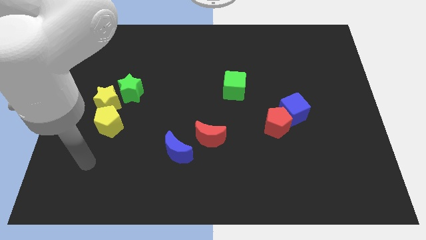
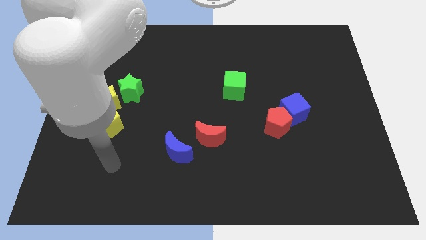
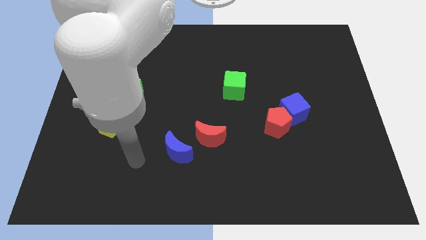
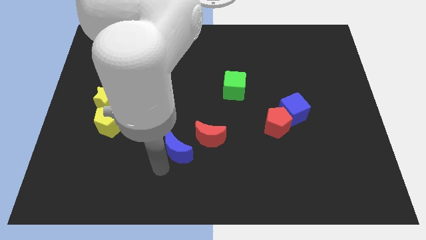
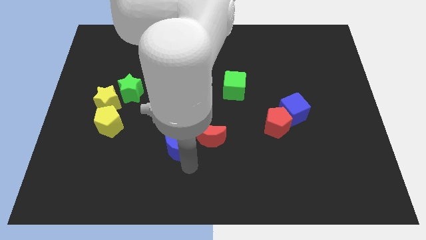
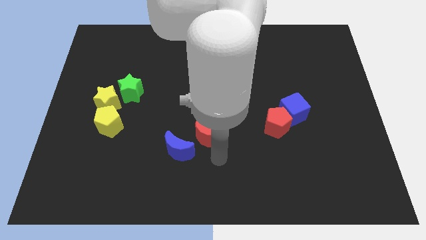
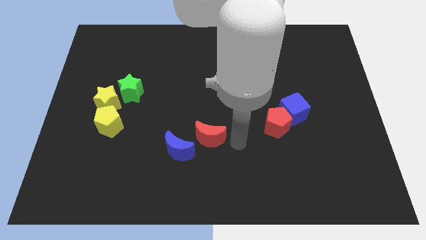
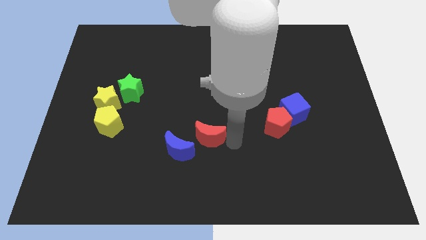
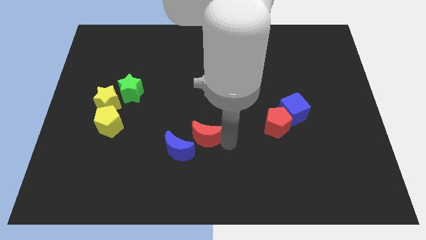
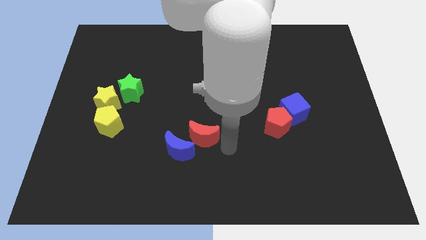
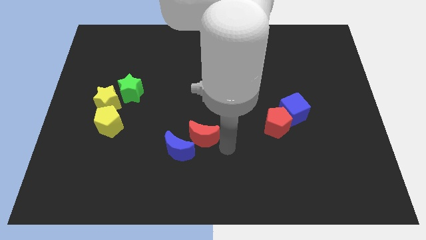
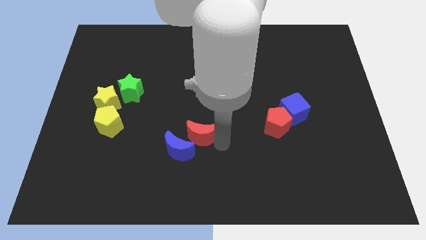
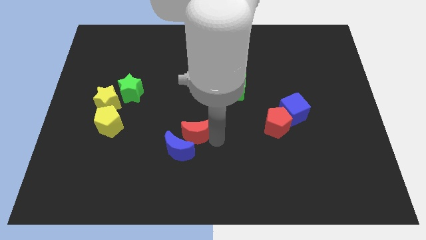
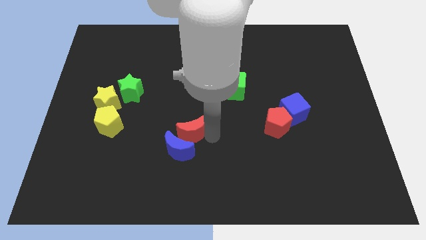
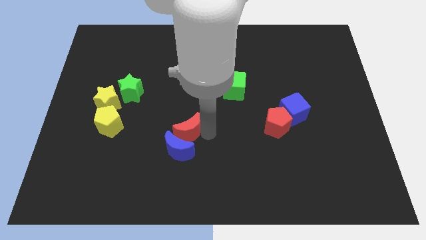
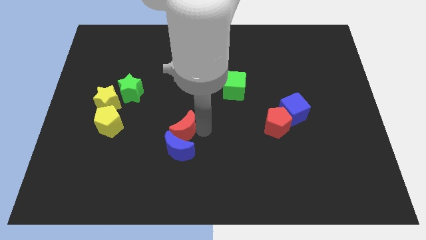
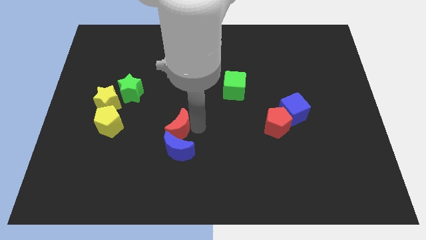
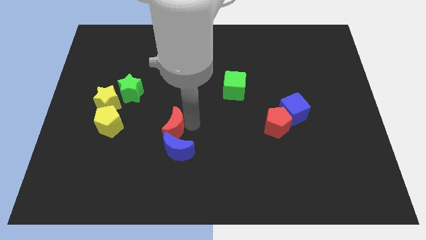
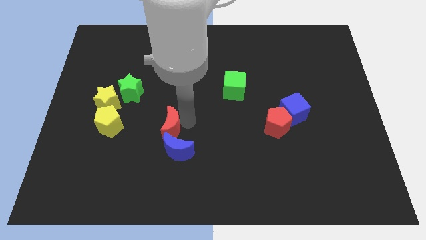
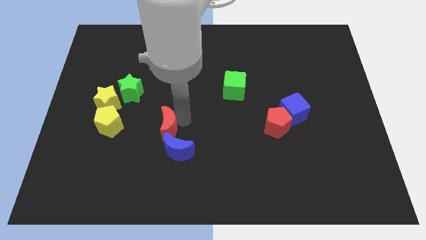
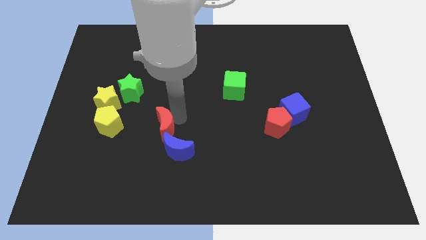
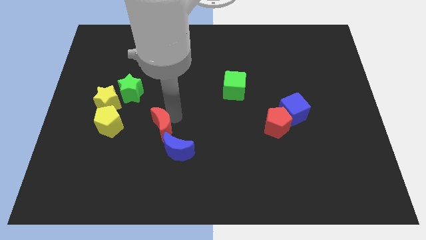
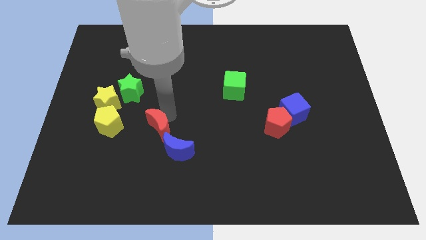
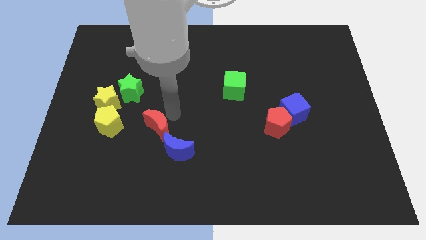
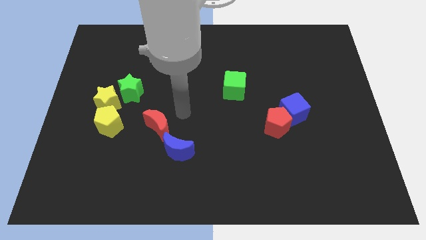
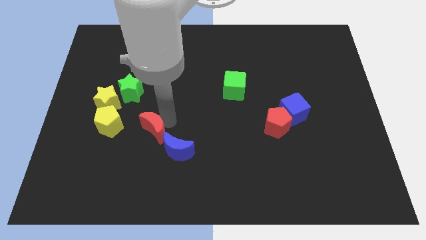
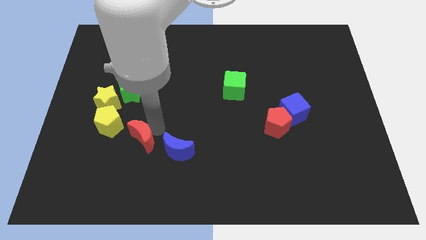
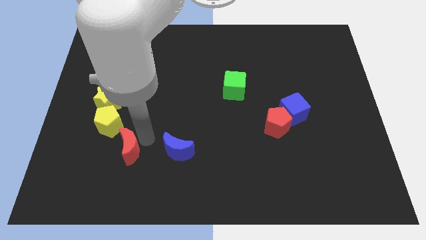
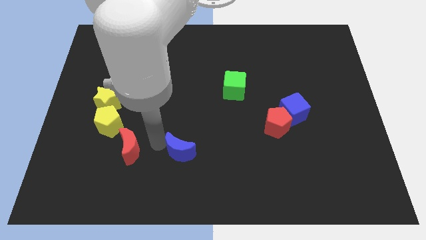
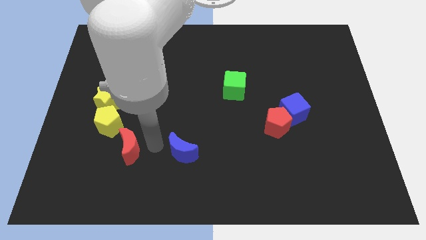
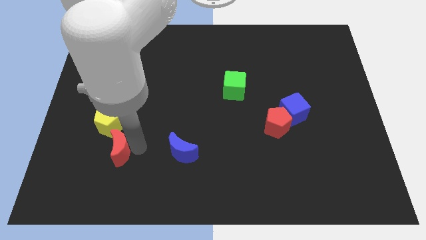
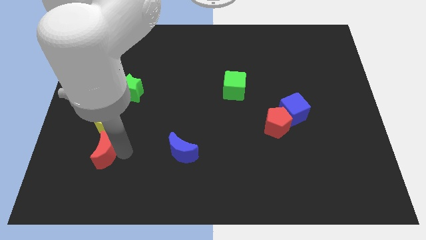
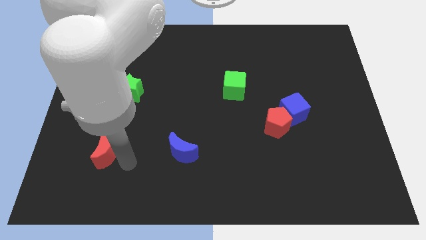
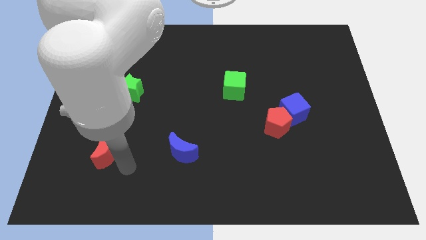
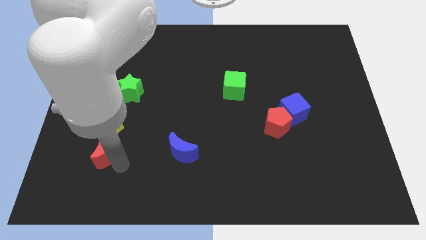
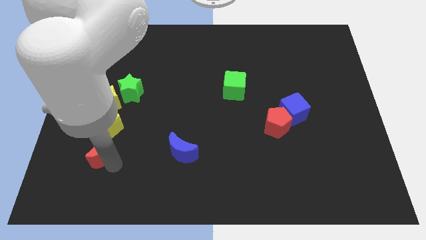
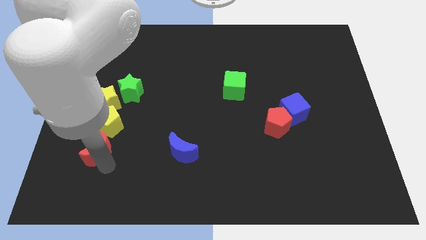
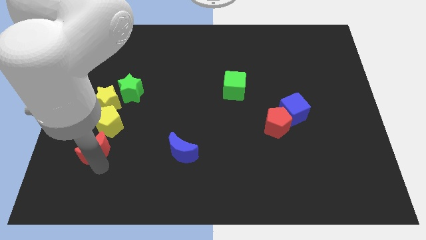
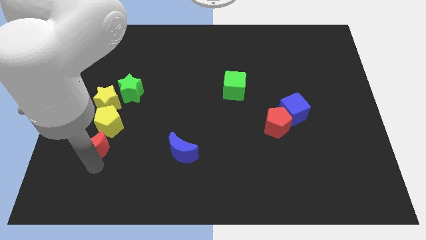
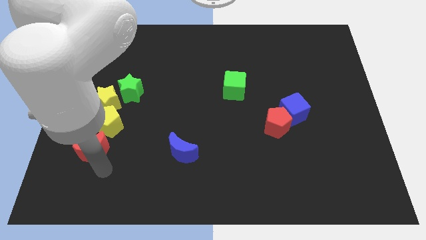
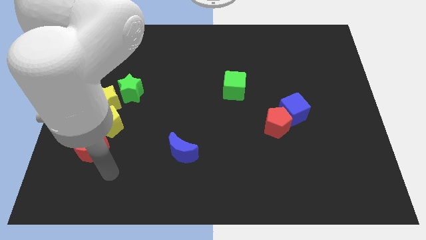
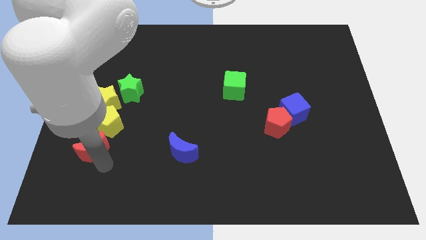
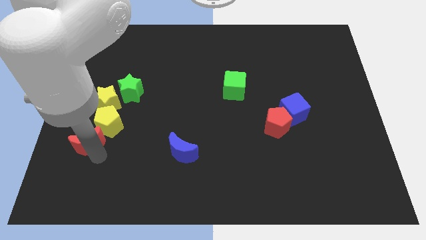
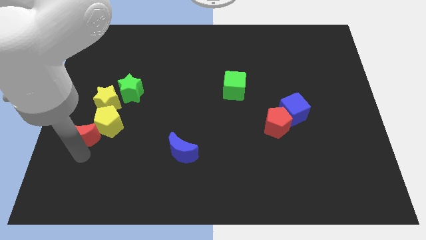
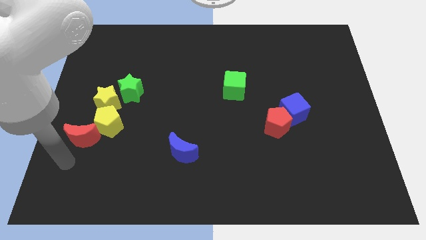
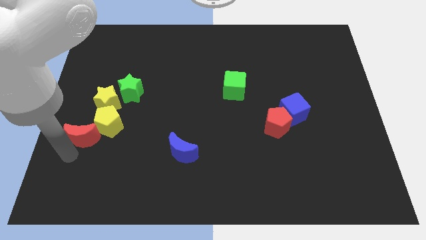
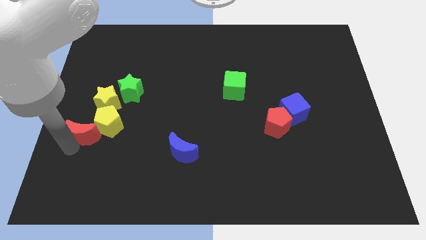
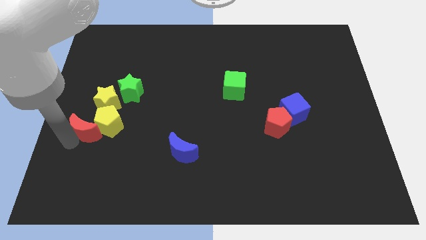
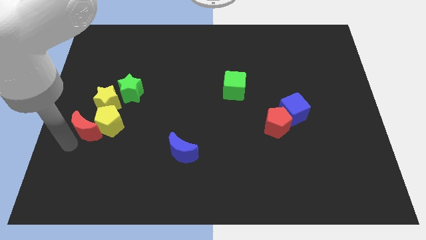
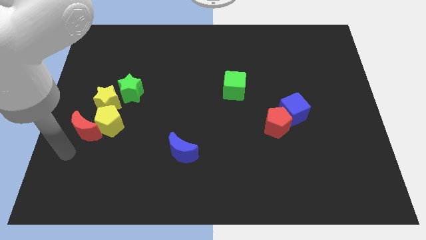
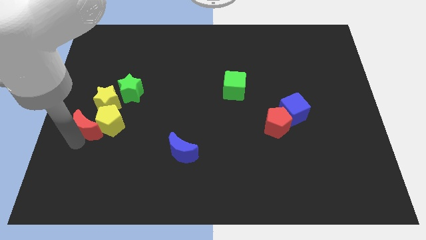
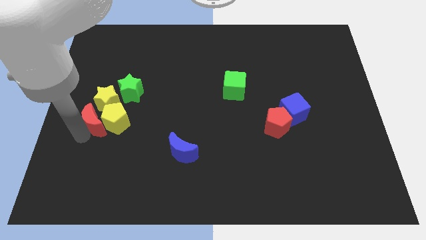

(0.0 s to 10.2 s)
slide the red moon to the bottom left of the green star

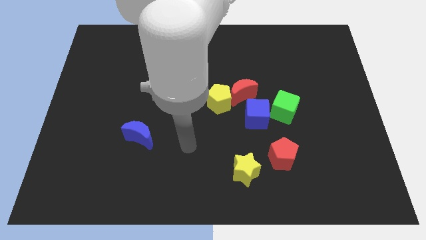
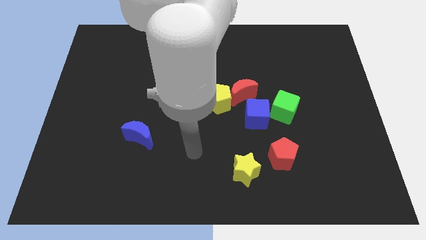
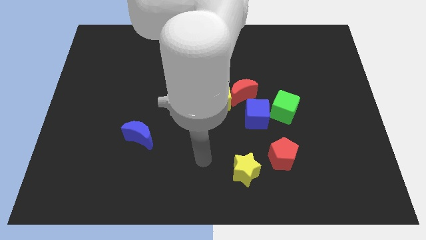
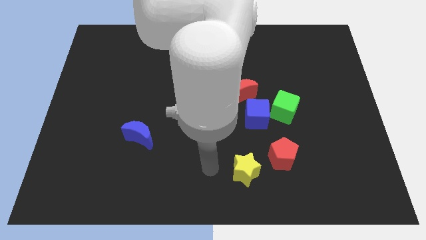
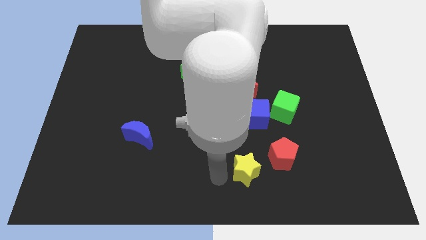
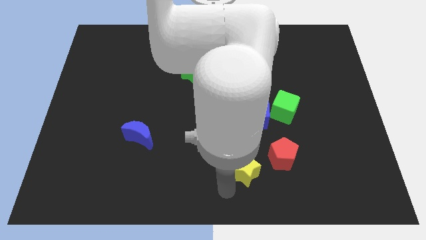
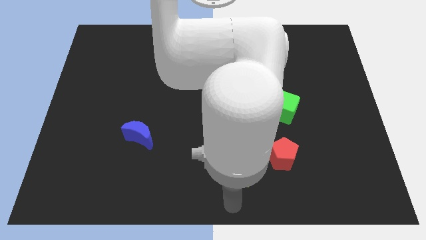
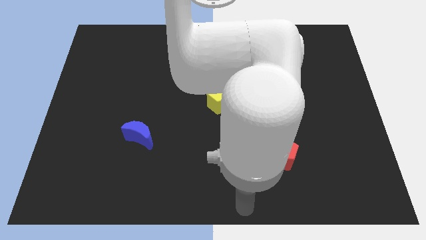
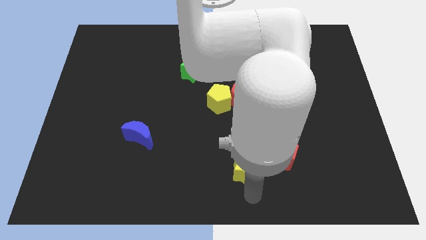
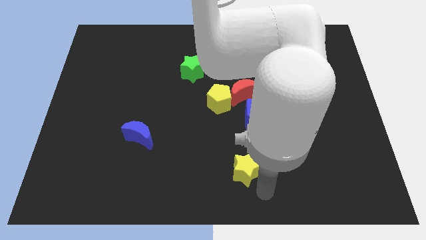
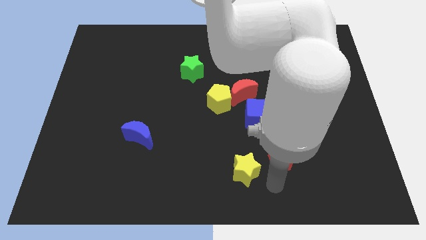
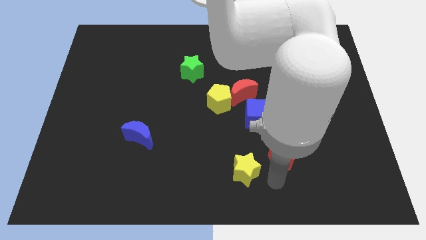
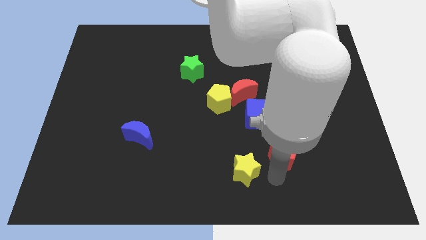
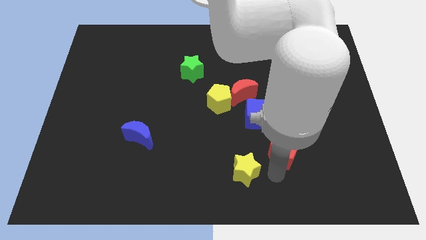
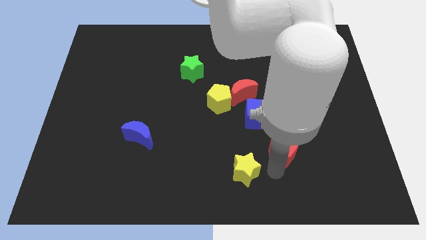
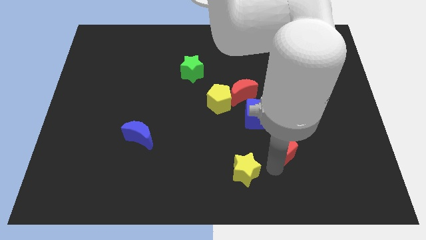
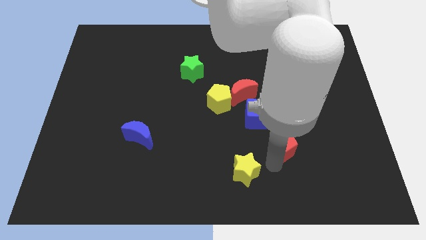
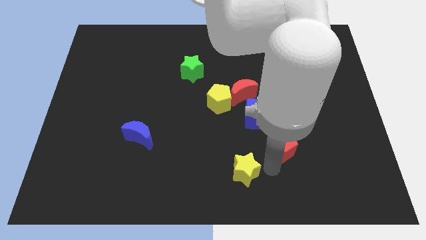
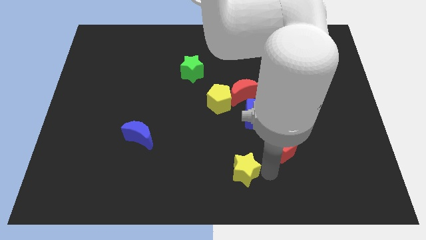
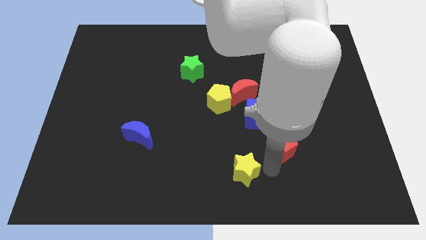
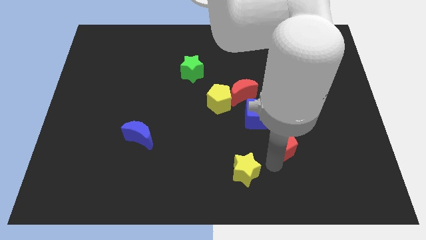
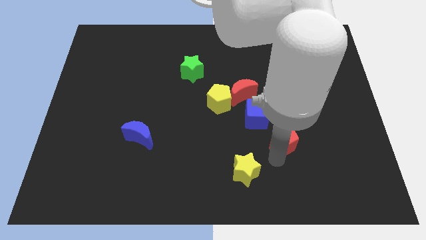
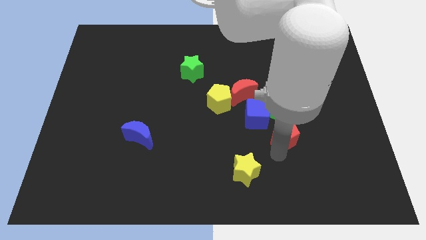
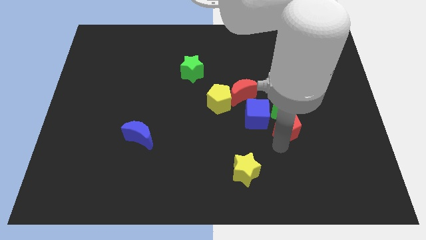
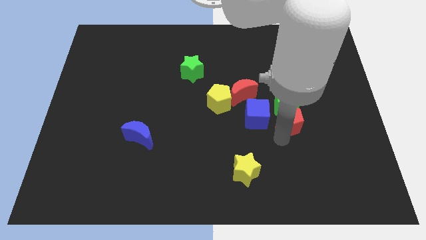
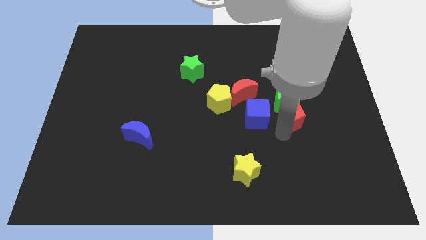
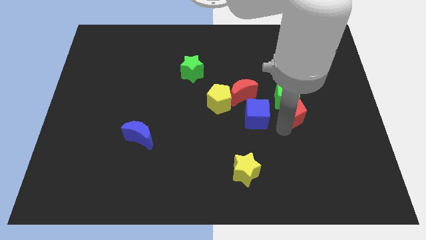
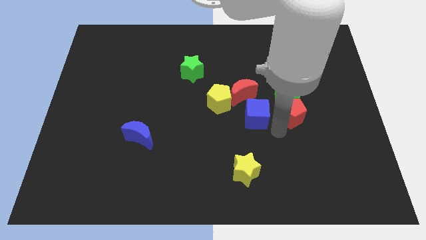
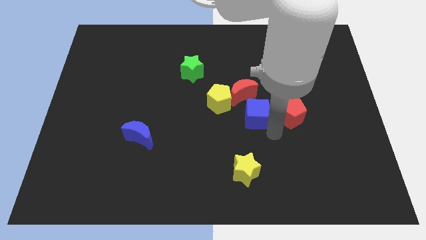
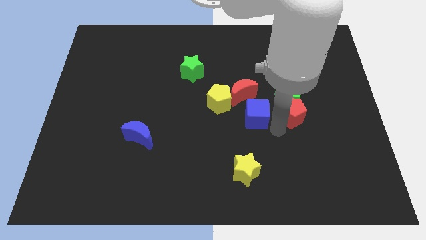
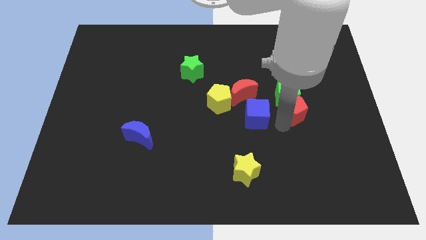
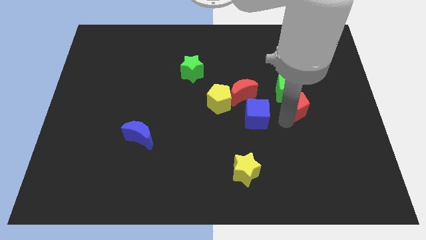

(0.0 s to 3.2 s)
slide the red pentagon to the right of the red moon

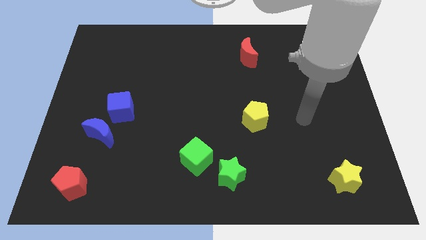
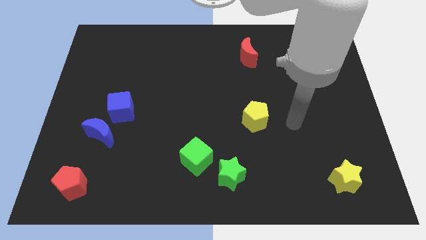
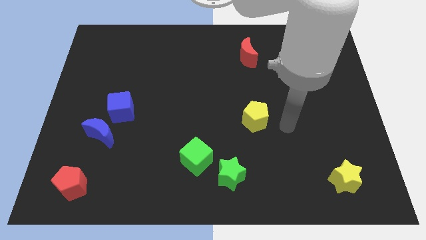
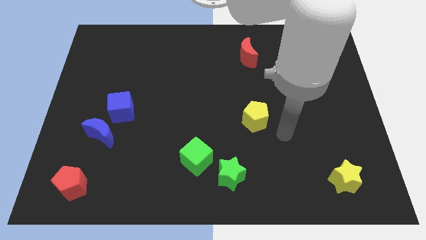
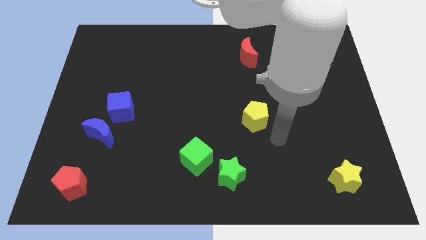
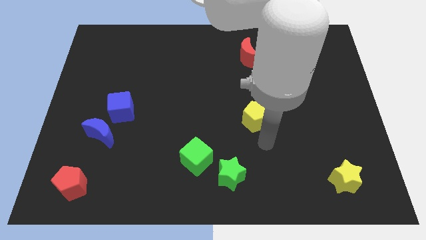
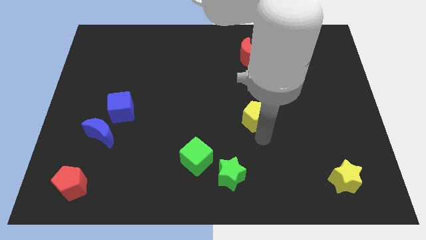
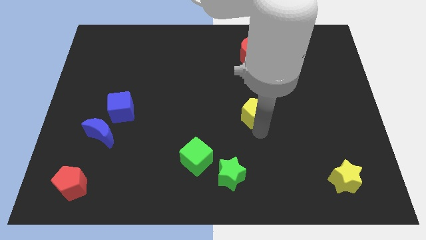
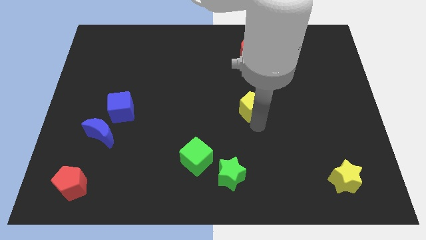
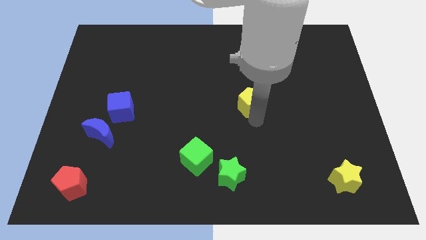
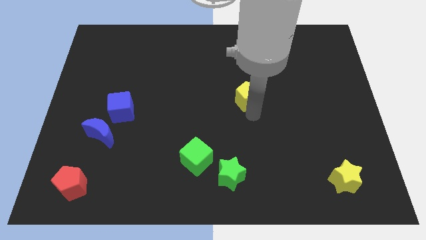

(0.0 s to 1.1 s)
push the yellow pentagon to the bottom of the red moon
